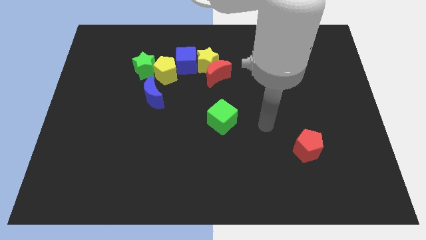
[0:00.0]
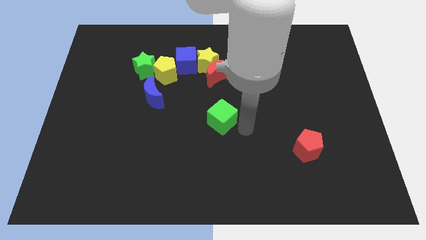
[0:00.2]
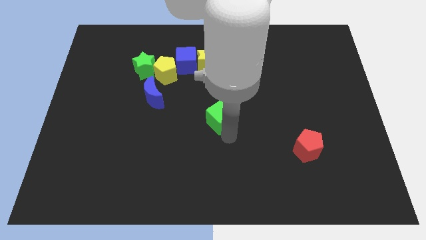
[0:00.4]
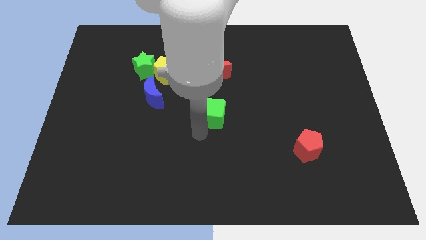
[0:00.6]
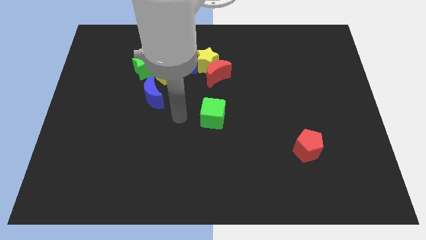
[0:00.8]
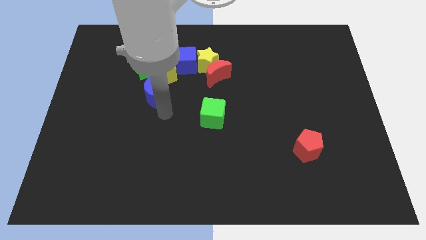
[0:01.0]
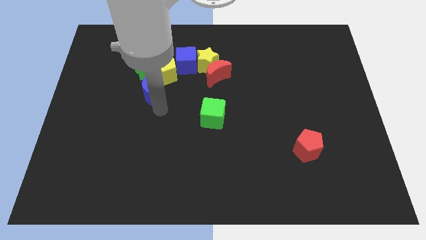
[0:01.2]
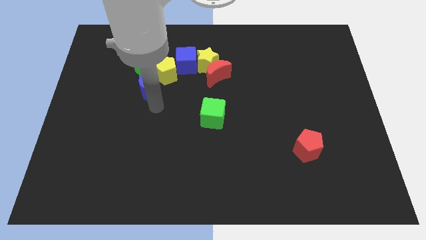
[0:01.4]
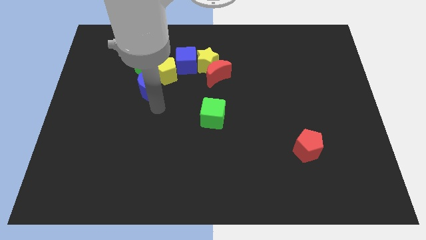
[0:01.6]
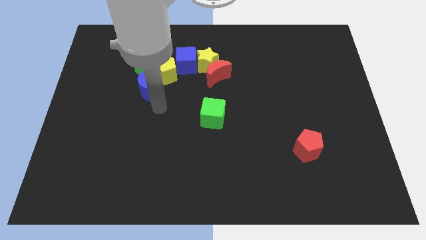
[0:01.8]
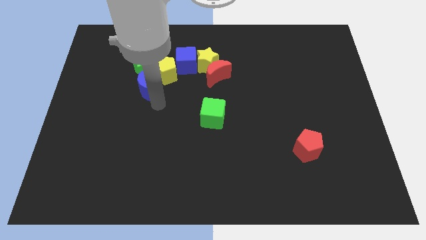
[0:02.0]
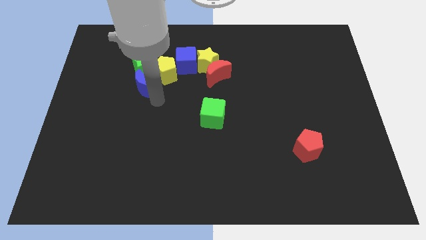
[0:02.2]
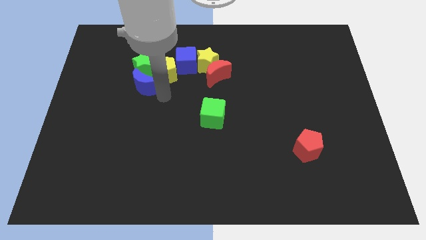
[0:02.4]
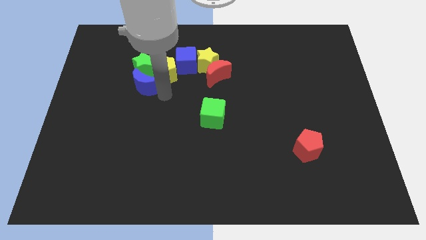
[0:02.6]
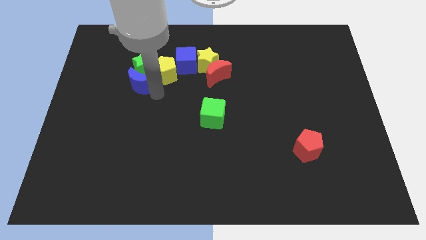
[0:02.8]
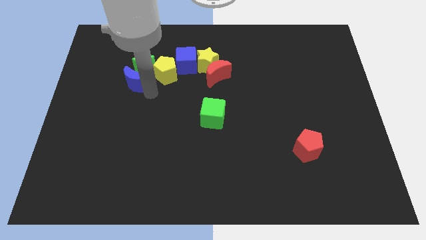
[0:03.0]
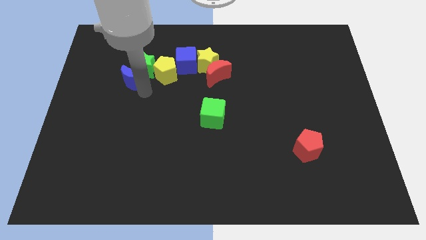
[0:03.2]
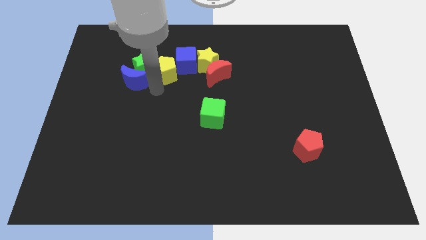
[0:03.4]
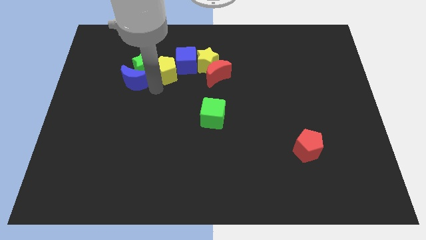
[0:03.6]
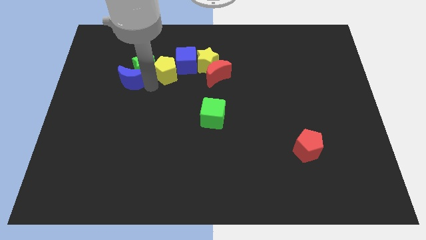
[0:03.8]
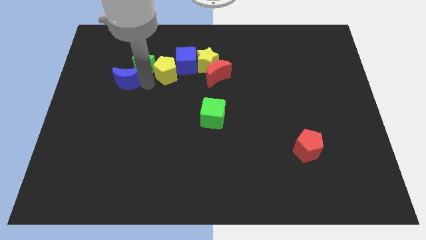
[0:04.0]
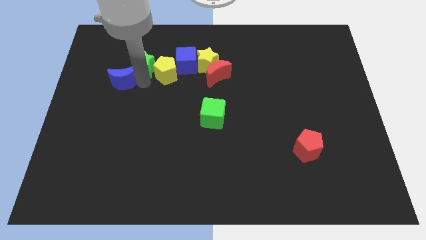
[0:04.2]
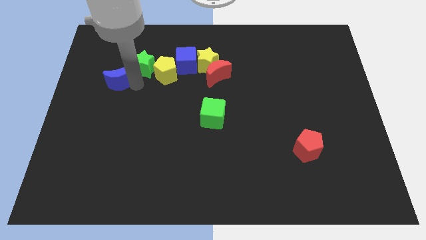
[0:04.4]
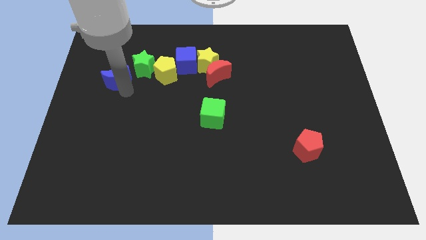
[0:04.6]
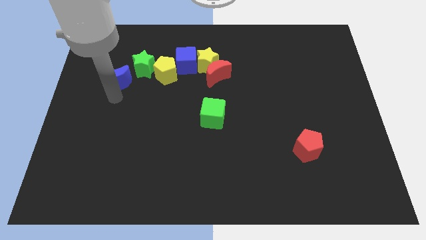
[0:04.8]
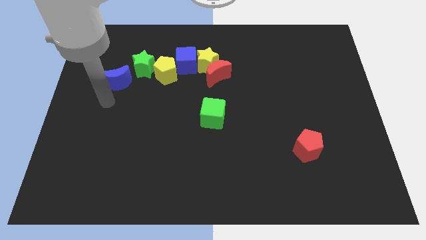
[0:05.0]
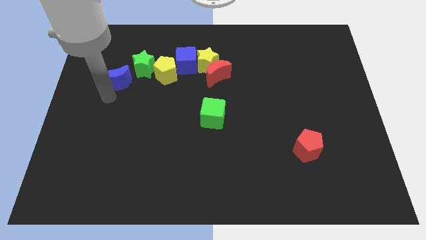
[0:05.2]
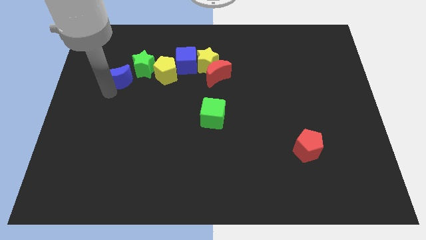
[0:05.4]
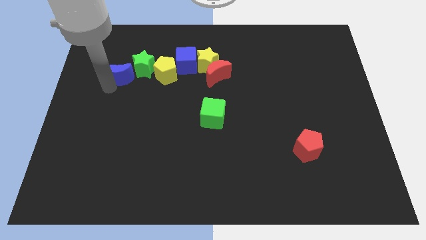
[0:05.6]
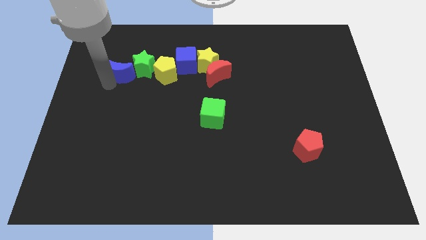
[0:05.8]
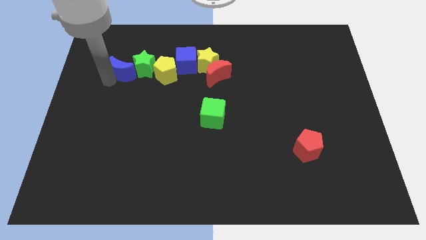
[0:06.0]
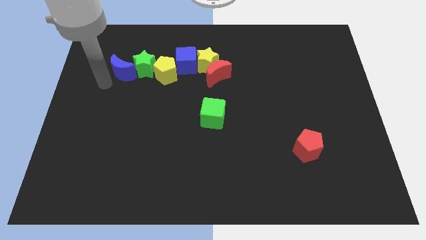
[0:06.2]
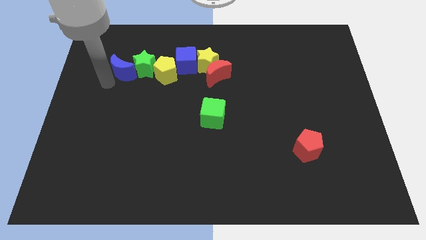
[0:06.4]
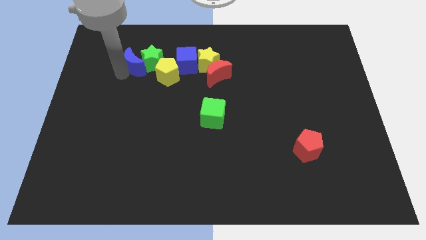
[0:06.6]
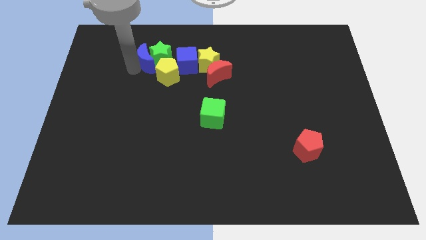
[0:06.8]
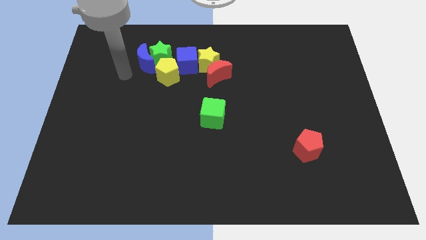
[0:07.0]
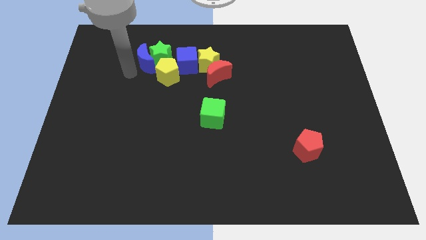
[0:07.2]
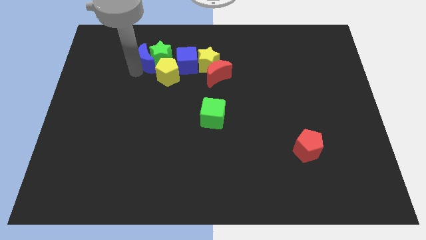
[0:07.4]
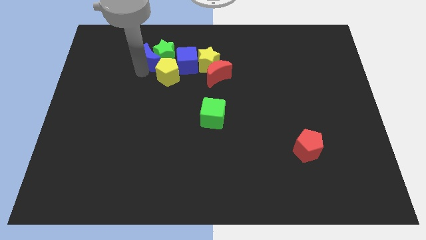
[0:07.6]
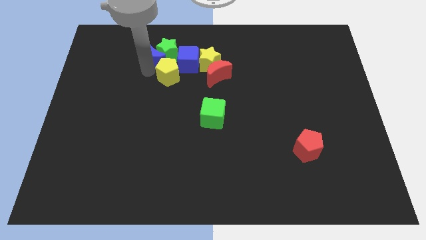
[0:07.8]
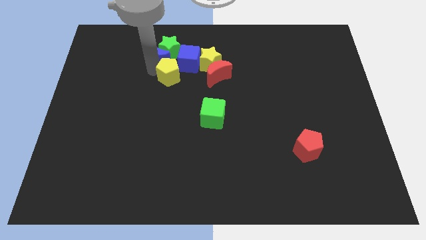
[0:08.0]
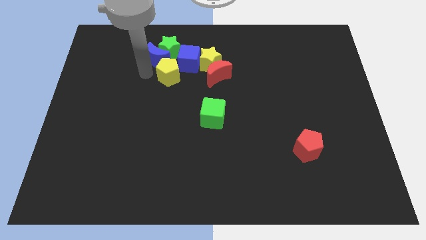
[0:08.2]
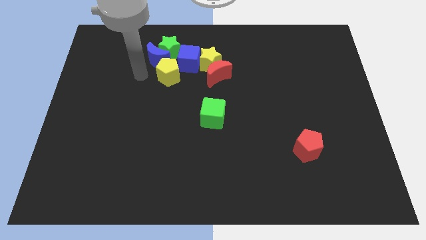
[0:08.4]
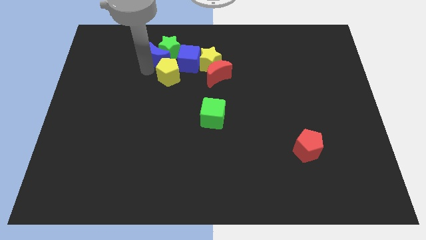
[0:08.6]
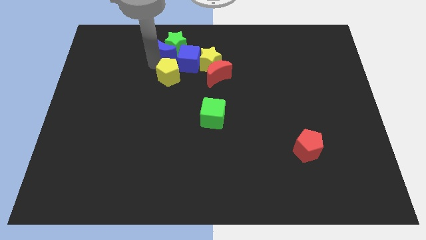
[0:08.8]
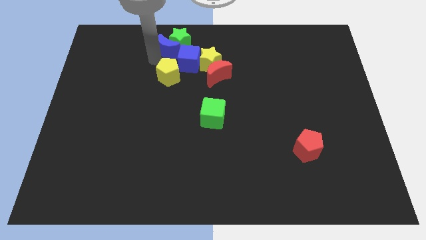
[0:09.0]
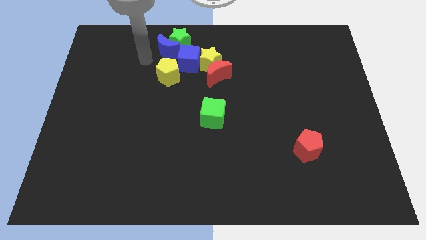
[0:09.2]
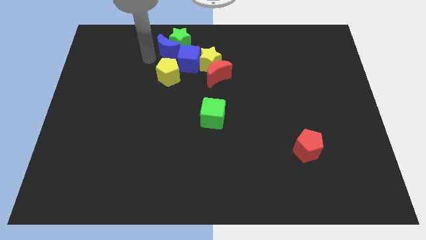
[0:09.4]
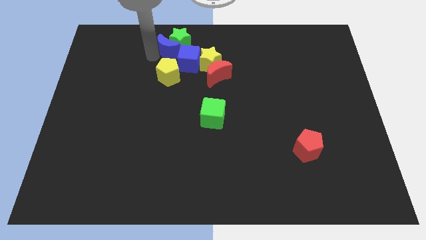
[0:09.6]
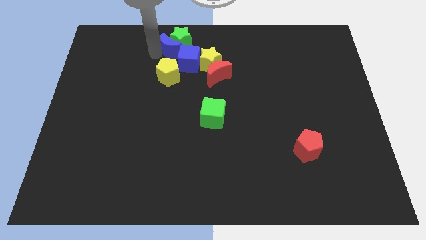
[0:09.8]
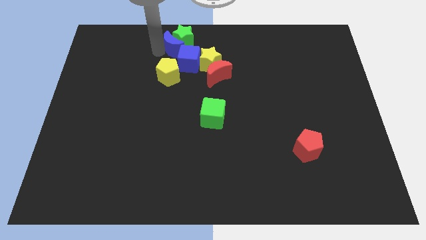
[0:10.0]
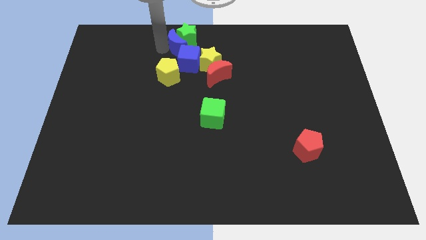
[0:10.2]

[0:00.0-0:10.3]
put the blue moon to the top

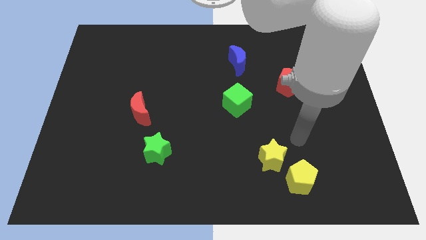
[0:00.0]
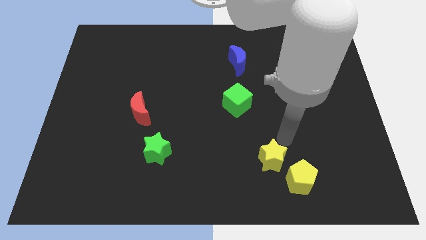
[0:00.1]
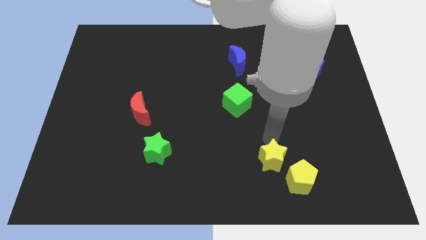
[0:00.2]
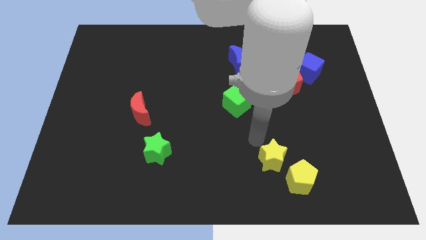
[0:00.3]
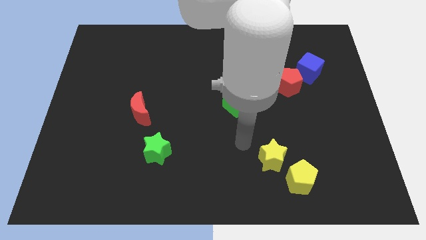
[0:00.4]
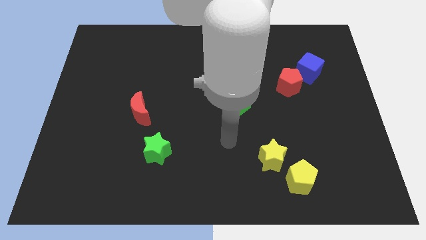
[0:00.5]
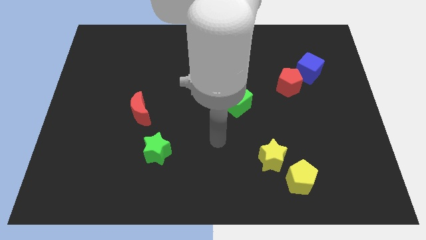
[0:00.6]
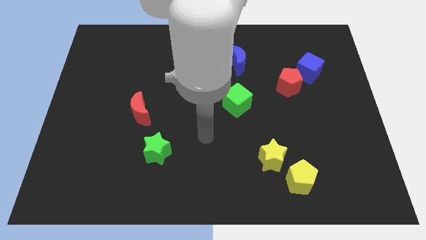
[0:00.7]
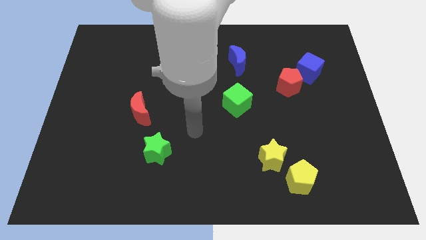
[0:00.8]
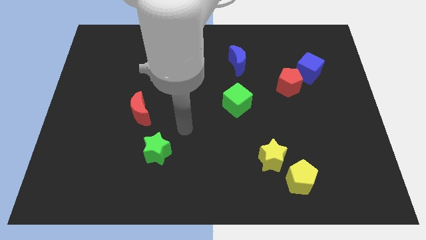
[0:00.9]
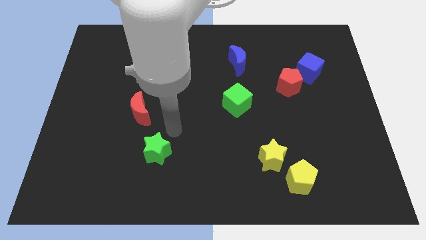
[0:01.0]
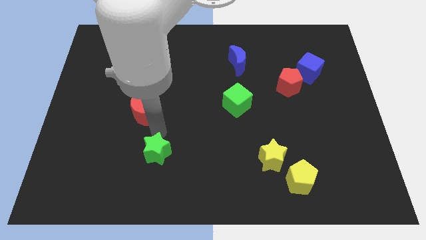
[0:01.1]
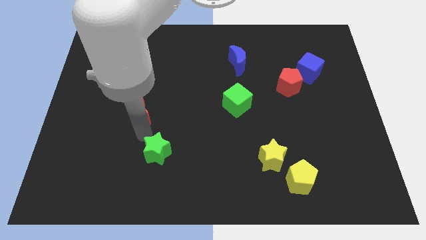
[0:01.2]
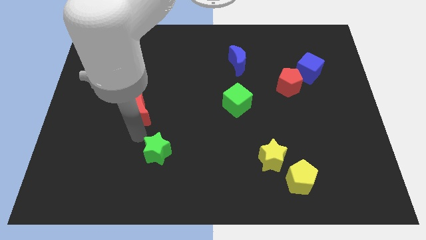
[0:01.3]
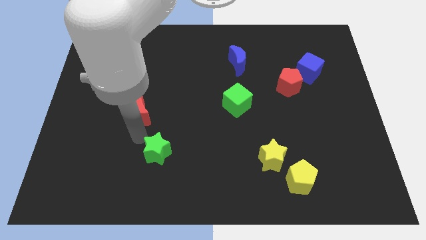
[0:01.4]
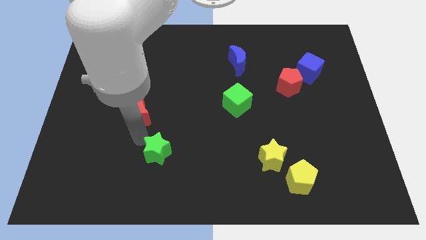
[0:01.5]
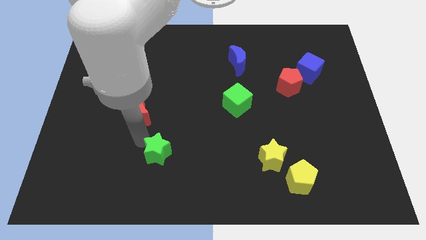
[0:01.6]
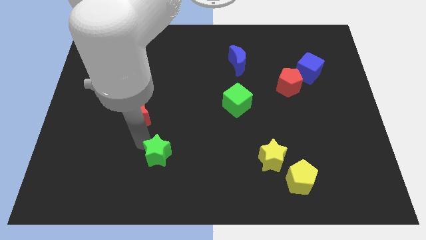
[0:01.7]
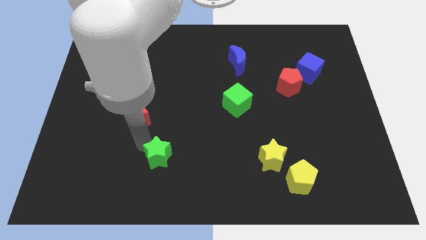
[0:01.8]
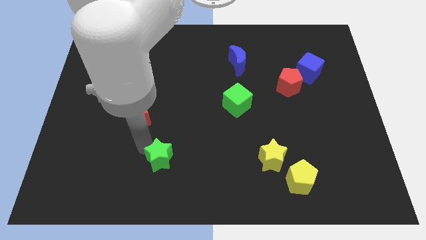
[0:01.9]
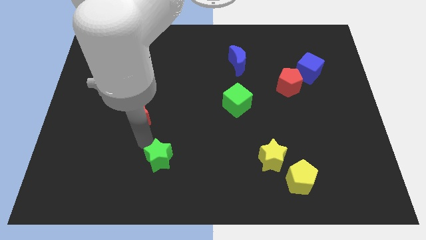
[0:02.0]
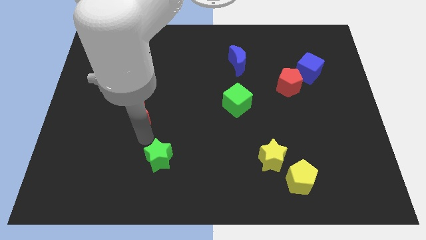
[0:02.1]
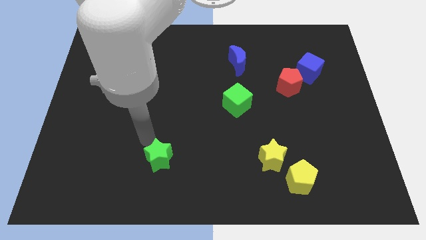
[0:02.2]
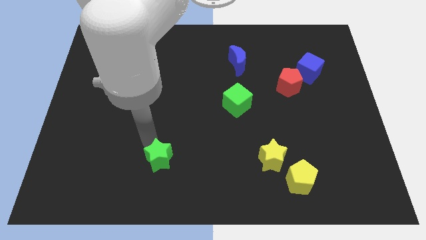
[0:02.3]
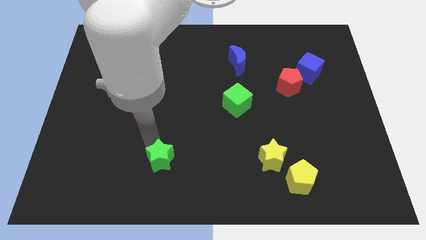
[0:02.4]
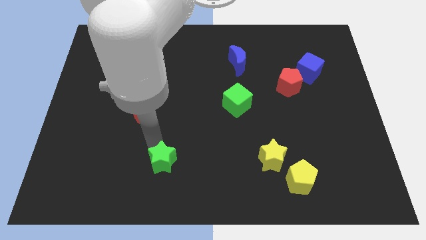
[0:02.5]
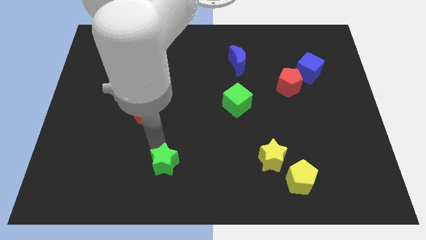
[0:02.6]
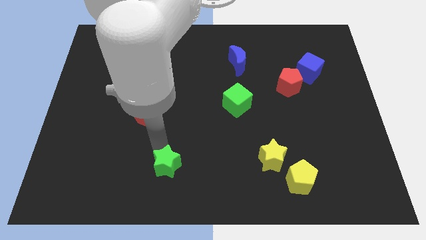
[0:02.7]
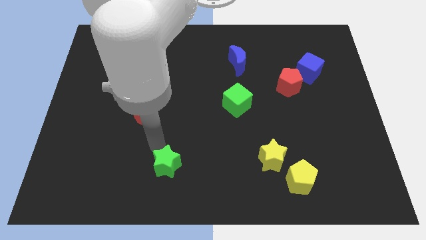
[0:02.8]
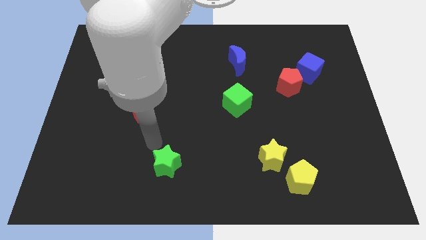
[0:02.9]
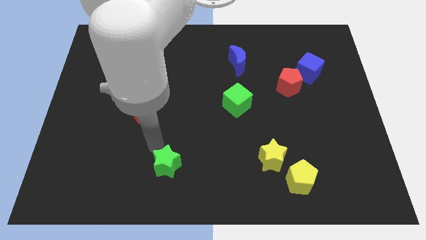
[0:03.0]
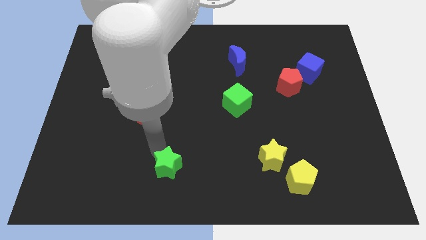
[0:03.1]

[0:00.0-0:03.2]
put the green star to the bottom
